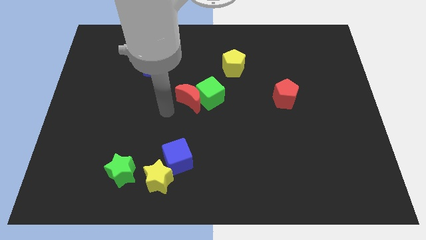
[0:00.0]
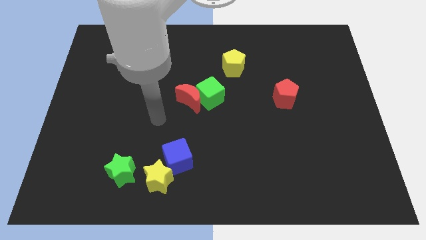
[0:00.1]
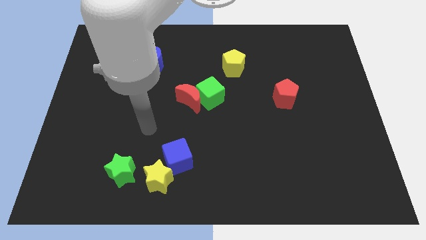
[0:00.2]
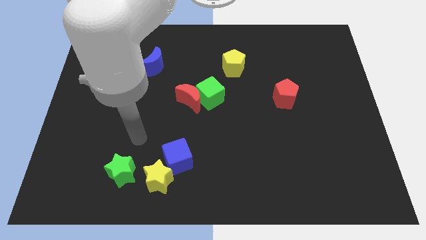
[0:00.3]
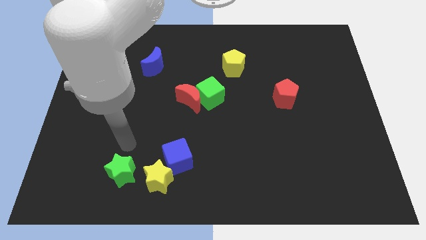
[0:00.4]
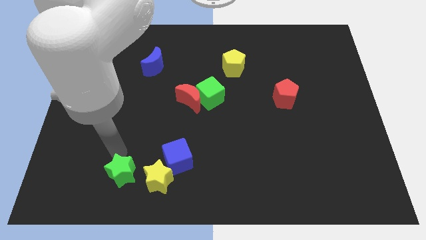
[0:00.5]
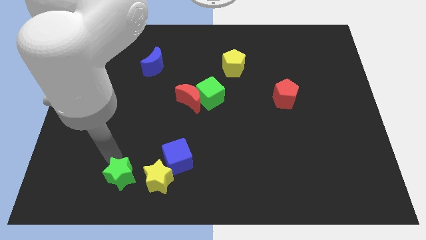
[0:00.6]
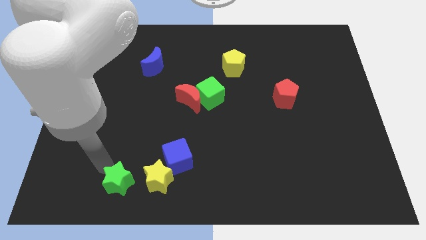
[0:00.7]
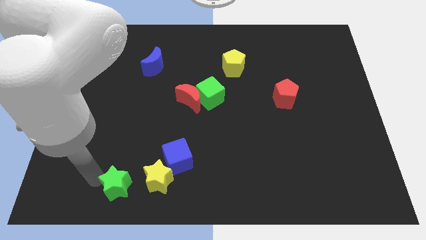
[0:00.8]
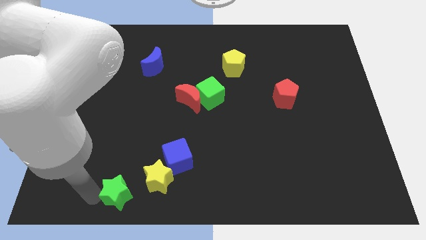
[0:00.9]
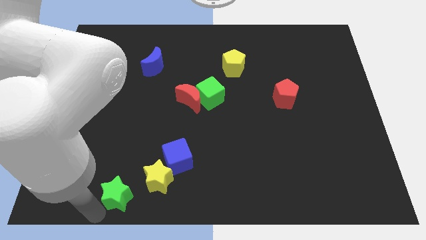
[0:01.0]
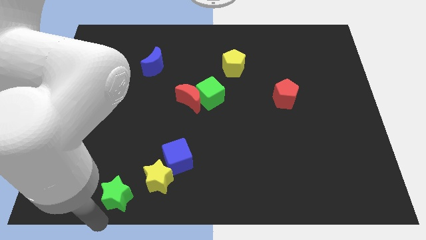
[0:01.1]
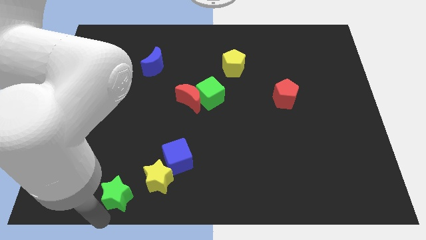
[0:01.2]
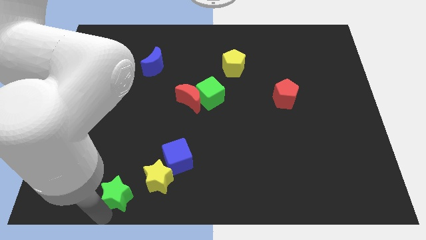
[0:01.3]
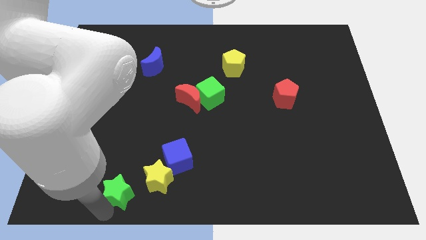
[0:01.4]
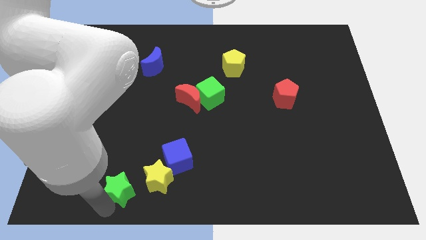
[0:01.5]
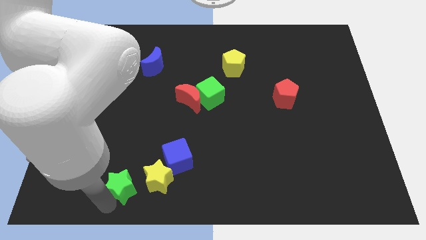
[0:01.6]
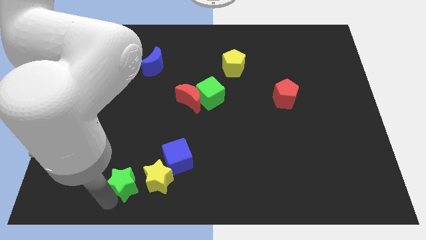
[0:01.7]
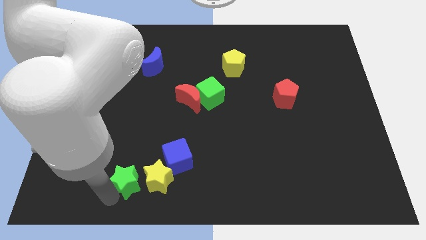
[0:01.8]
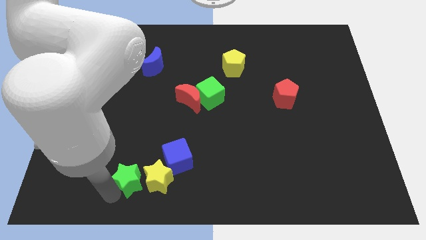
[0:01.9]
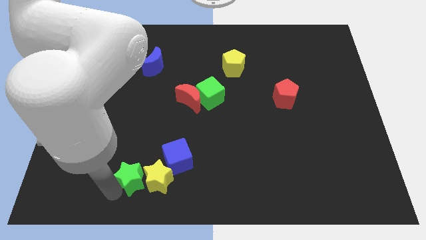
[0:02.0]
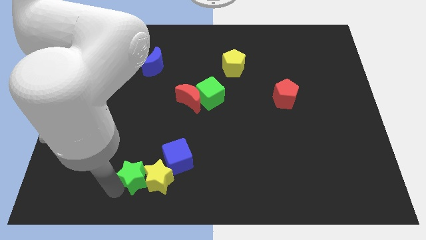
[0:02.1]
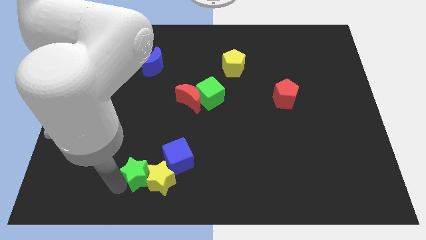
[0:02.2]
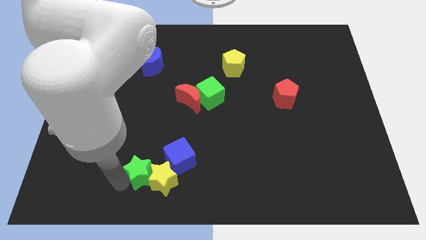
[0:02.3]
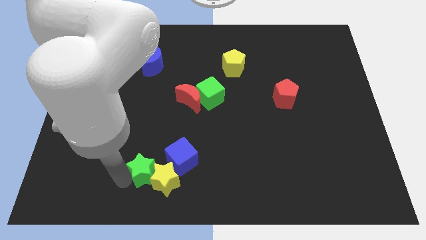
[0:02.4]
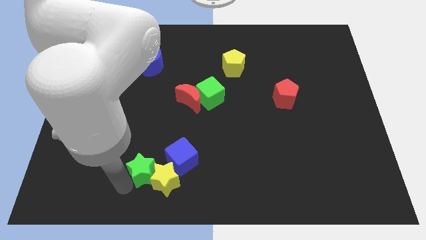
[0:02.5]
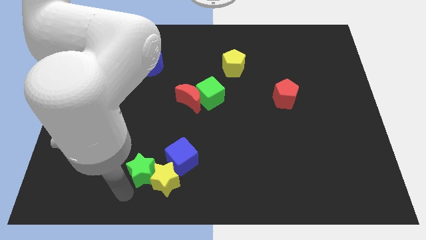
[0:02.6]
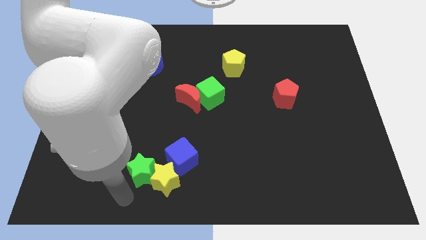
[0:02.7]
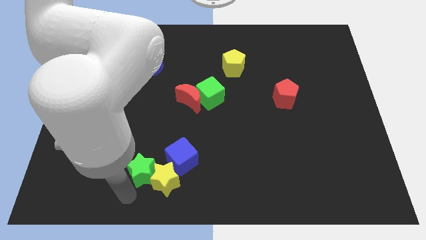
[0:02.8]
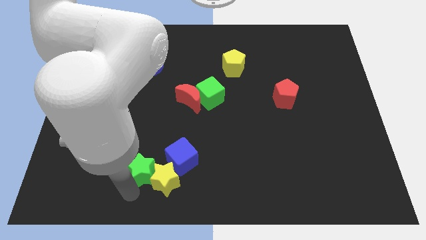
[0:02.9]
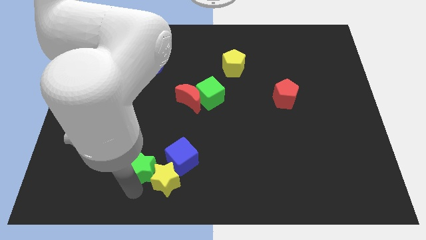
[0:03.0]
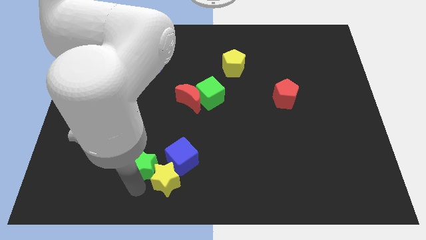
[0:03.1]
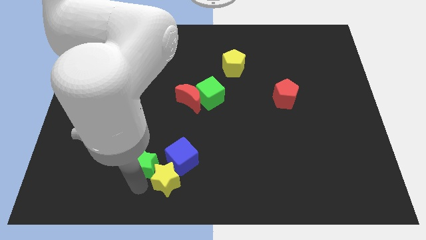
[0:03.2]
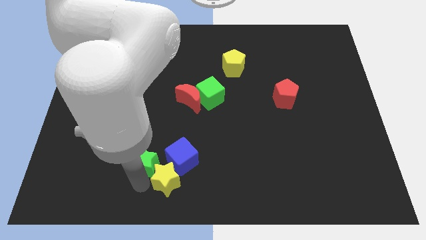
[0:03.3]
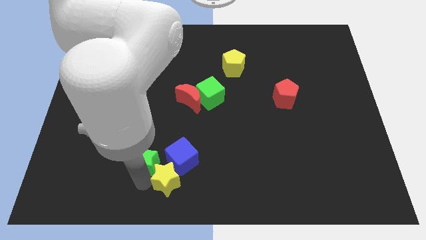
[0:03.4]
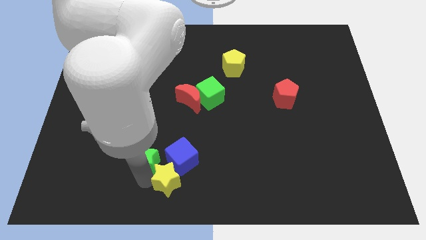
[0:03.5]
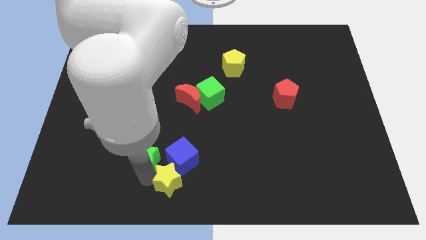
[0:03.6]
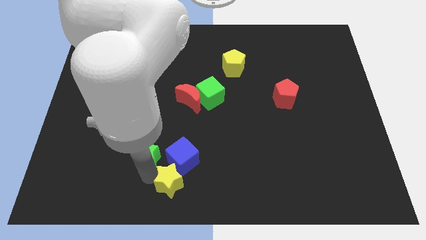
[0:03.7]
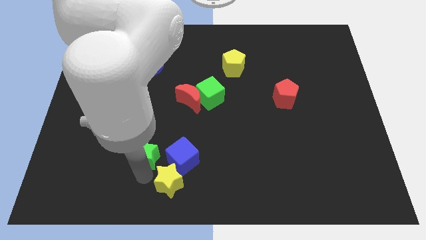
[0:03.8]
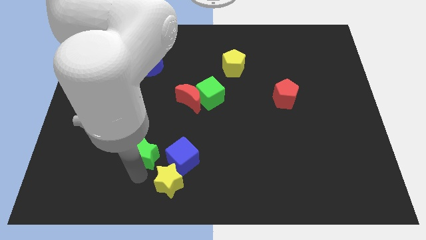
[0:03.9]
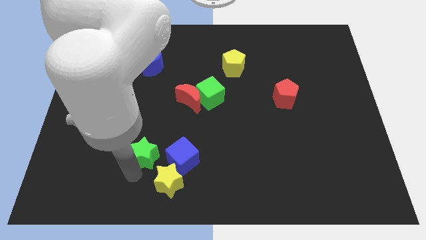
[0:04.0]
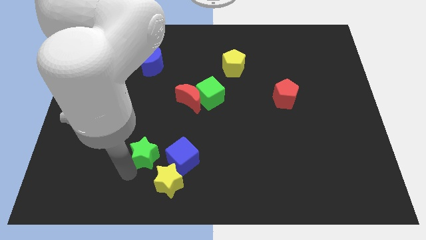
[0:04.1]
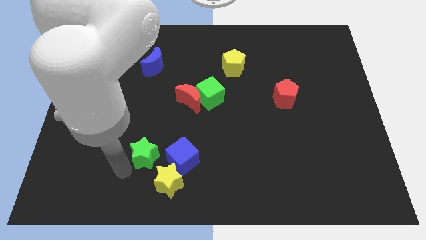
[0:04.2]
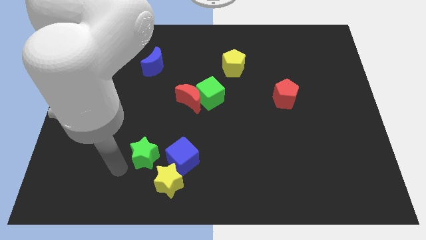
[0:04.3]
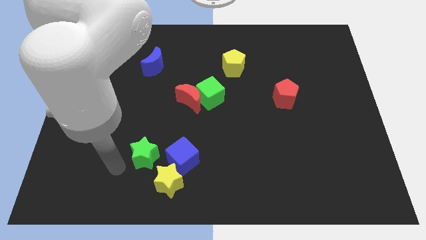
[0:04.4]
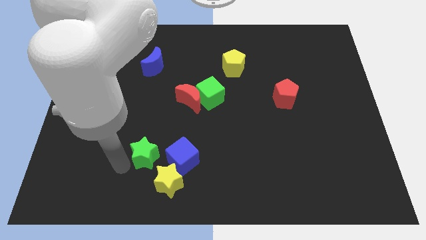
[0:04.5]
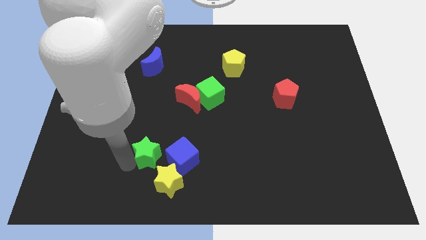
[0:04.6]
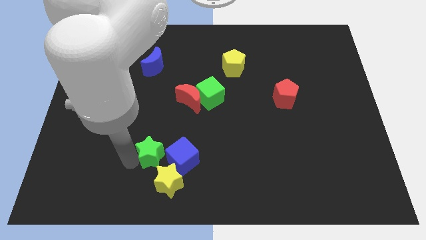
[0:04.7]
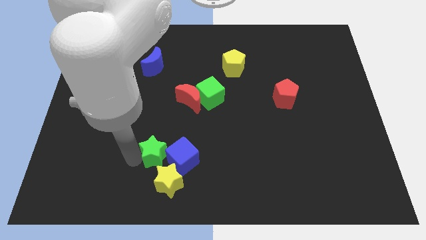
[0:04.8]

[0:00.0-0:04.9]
push the green star towards the blue cube

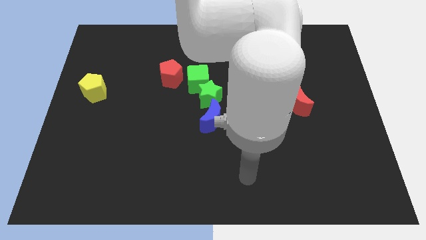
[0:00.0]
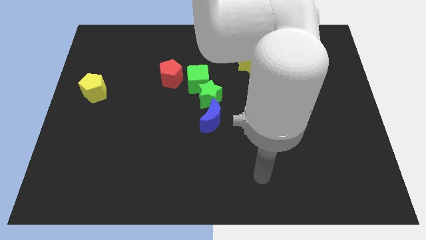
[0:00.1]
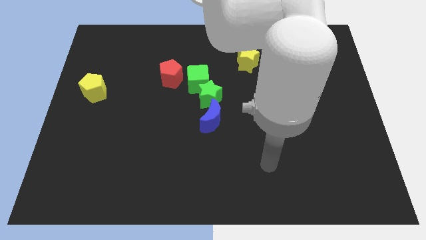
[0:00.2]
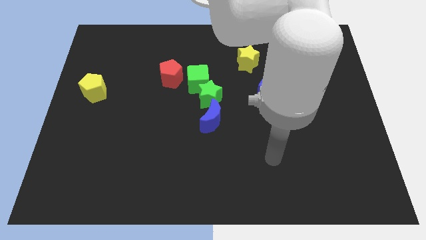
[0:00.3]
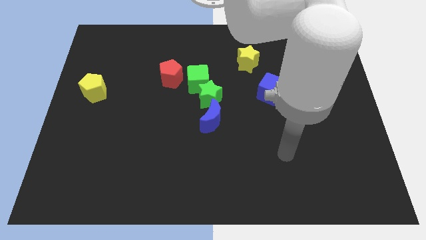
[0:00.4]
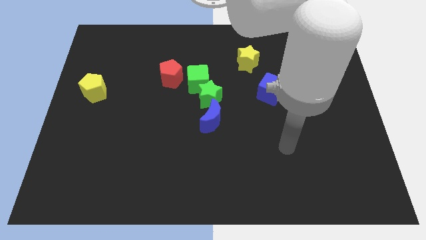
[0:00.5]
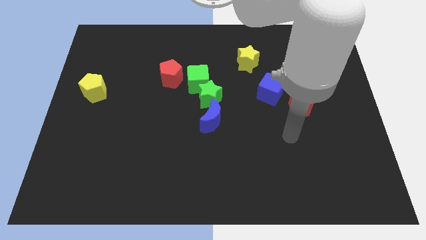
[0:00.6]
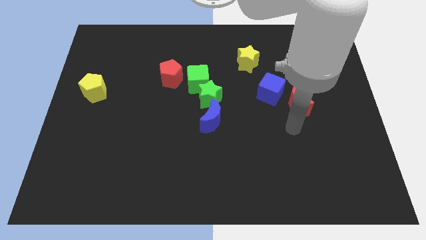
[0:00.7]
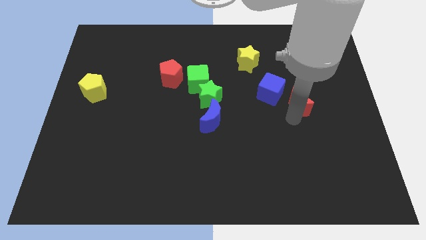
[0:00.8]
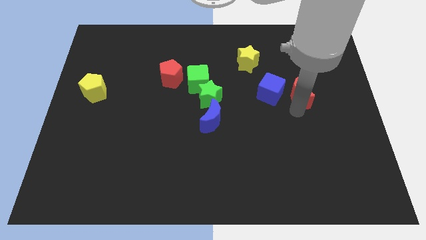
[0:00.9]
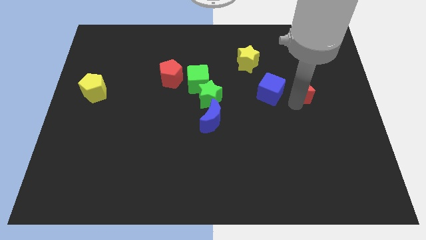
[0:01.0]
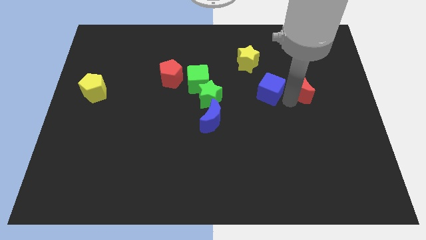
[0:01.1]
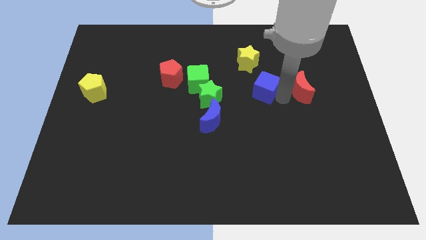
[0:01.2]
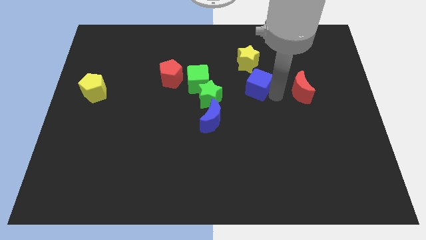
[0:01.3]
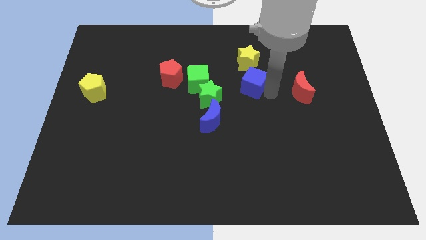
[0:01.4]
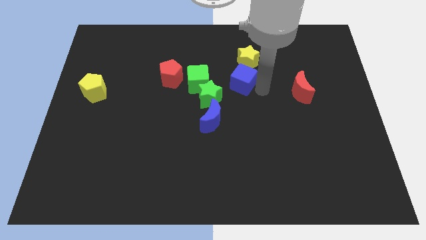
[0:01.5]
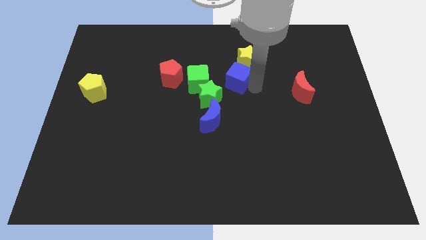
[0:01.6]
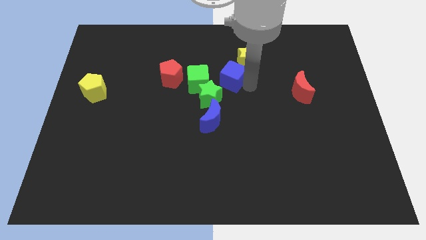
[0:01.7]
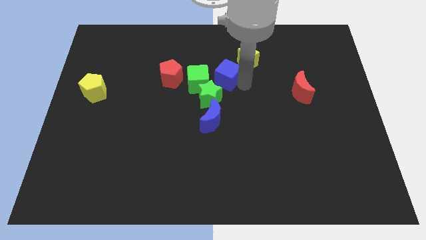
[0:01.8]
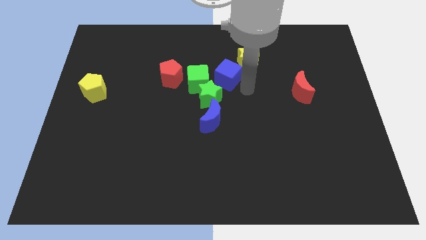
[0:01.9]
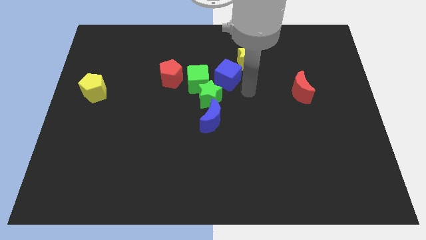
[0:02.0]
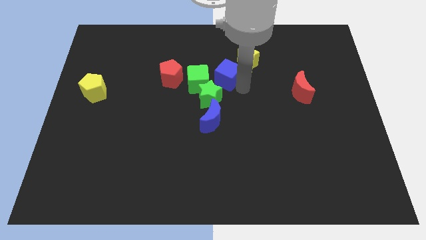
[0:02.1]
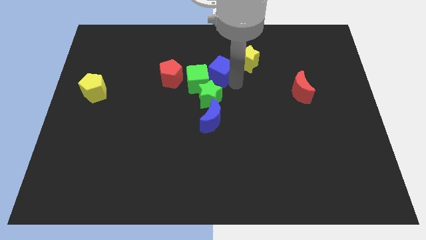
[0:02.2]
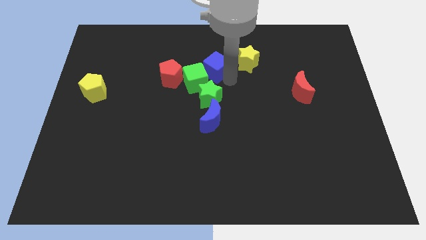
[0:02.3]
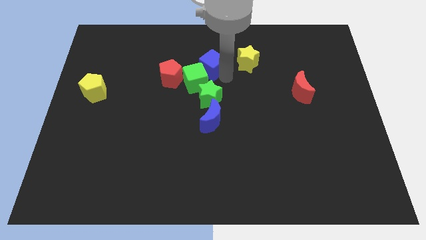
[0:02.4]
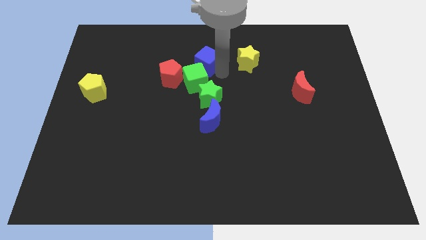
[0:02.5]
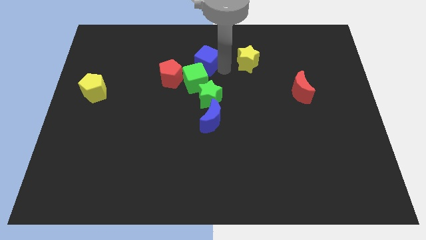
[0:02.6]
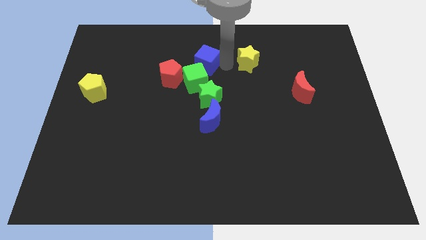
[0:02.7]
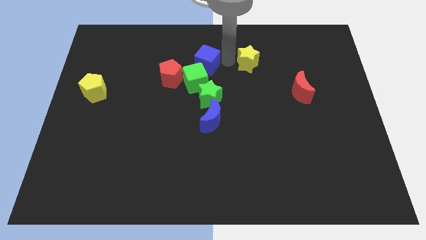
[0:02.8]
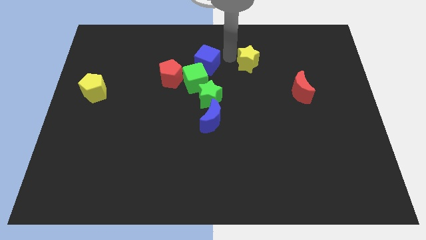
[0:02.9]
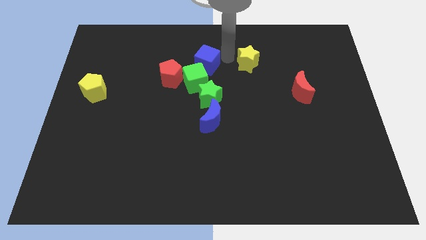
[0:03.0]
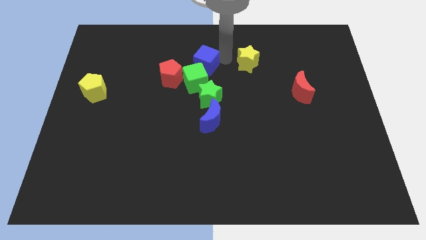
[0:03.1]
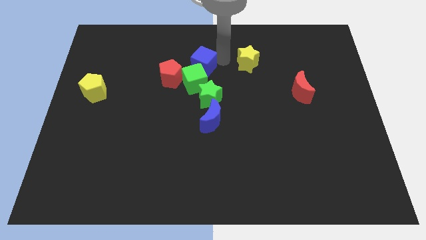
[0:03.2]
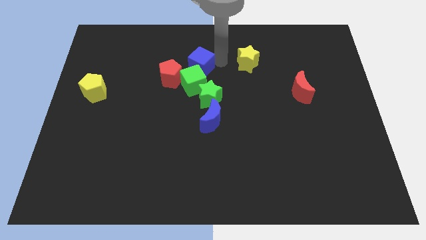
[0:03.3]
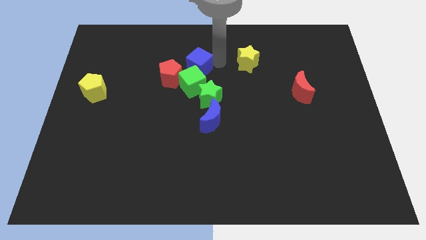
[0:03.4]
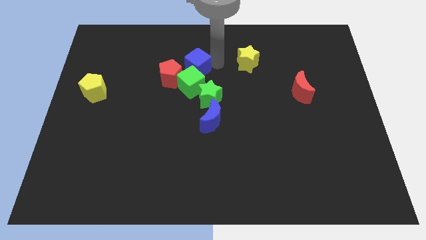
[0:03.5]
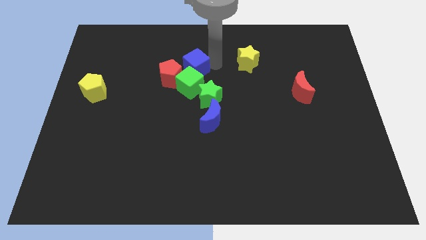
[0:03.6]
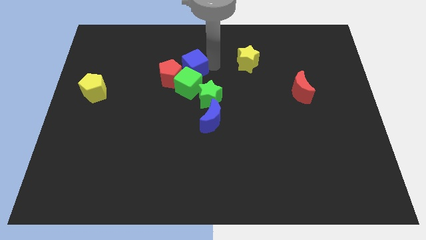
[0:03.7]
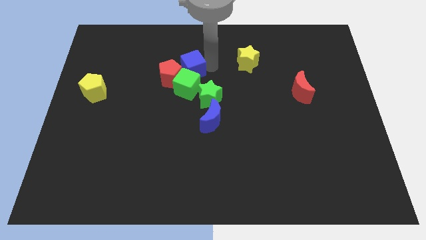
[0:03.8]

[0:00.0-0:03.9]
slide the blue cube towards the red pentagon
